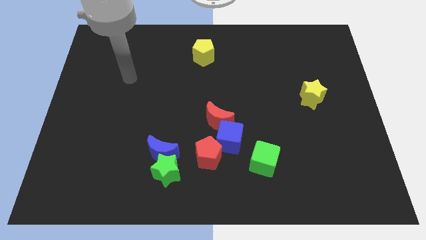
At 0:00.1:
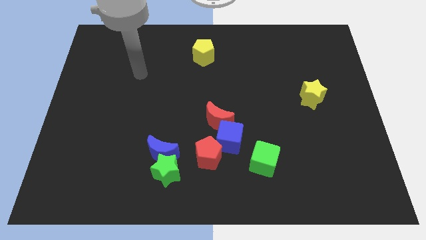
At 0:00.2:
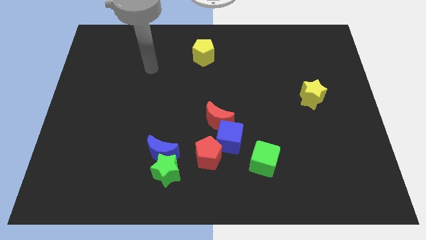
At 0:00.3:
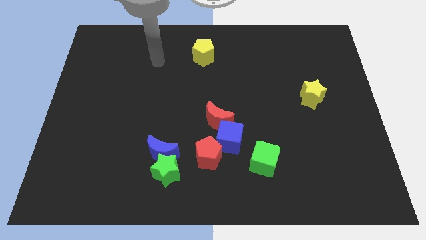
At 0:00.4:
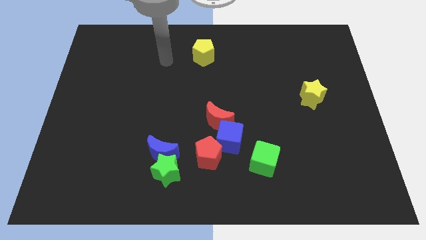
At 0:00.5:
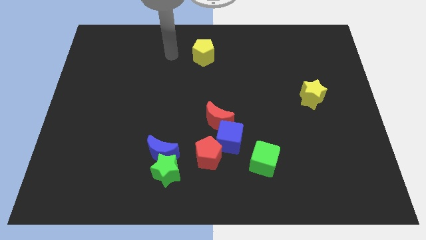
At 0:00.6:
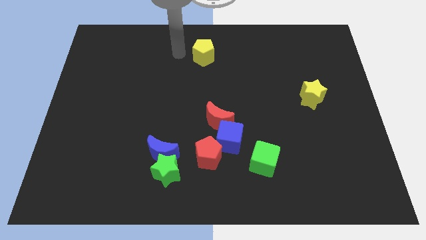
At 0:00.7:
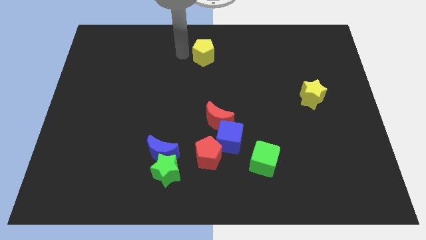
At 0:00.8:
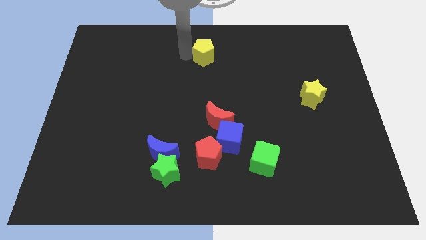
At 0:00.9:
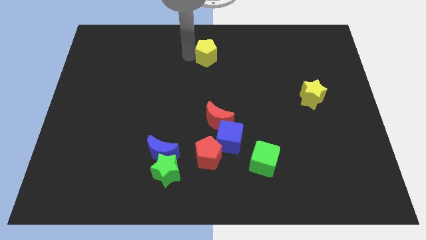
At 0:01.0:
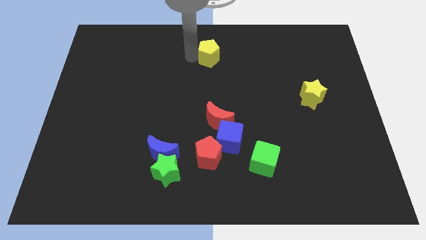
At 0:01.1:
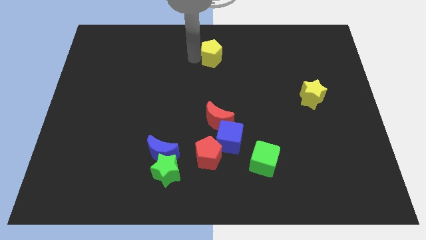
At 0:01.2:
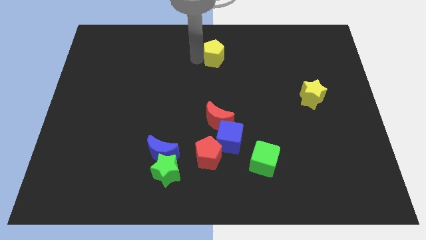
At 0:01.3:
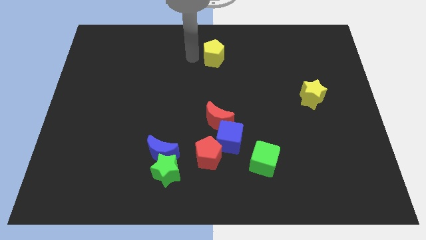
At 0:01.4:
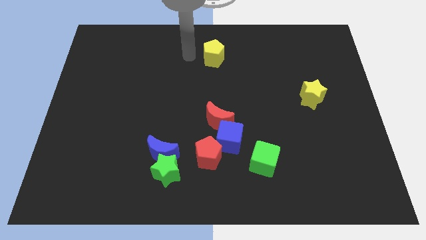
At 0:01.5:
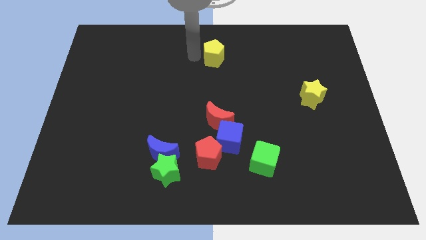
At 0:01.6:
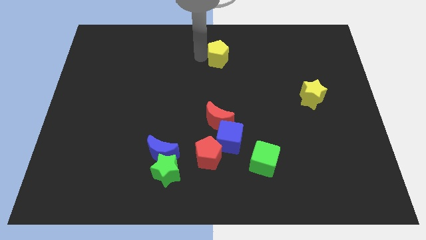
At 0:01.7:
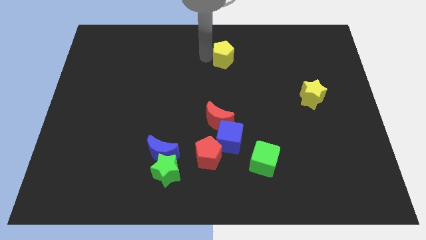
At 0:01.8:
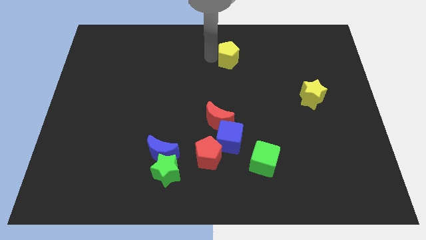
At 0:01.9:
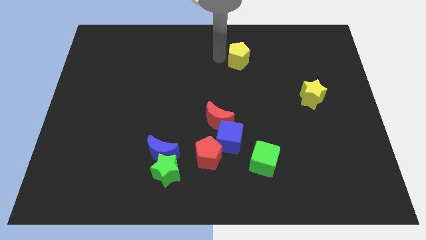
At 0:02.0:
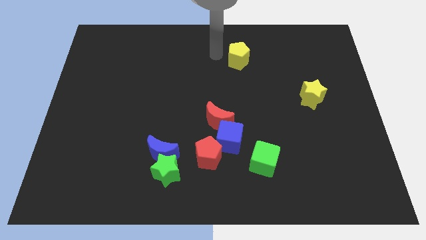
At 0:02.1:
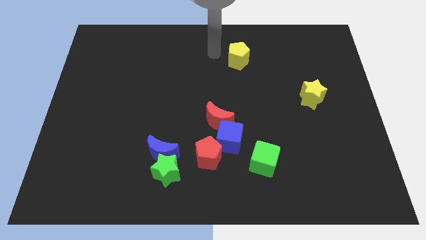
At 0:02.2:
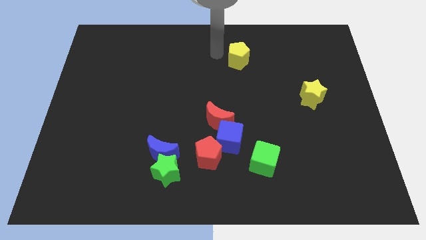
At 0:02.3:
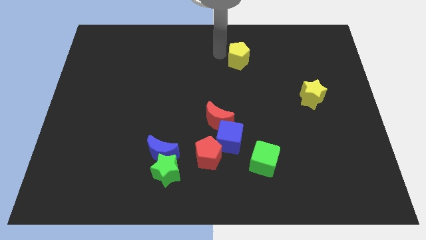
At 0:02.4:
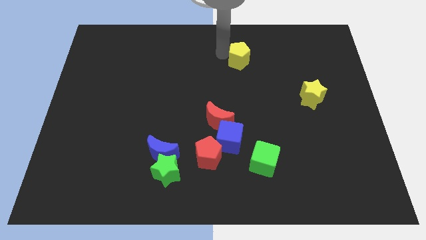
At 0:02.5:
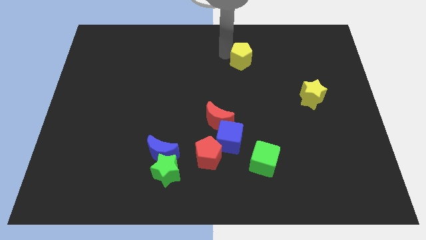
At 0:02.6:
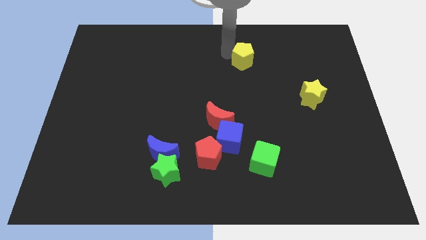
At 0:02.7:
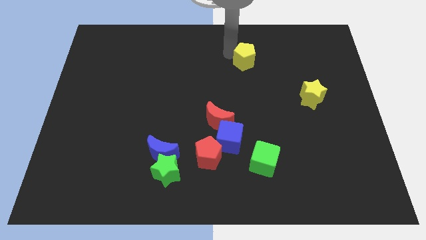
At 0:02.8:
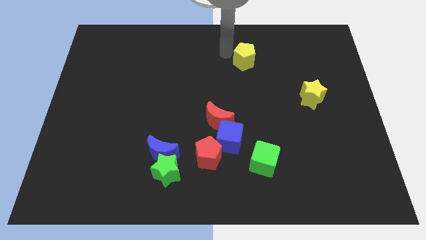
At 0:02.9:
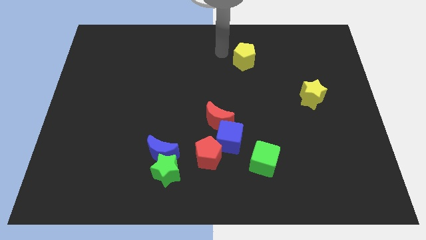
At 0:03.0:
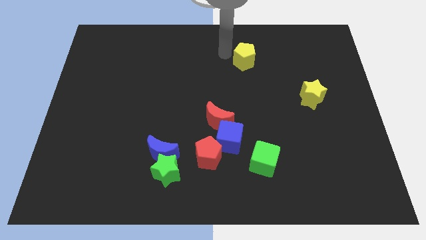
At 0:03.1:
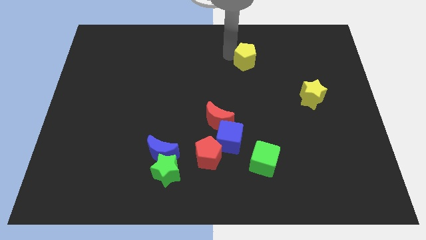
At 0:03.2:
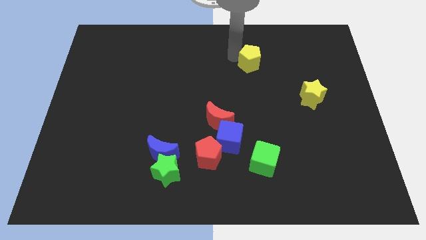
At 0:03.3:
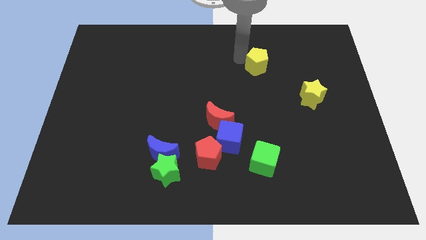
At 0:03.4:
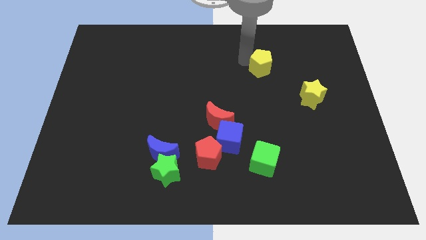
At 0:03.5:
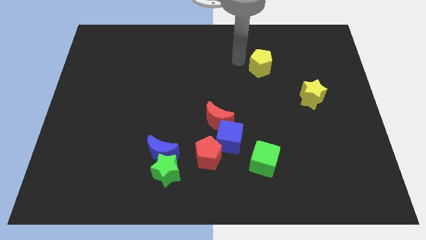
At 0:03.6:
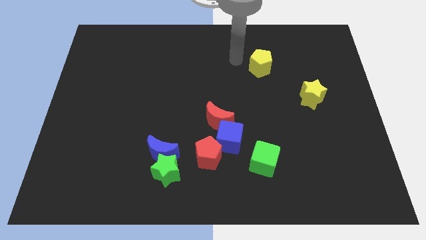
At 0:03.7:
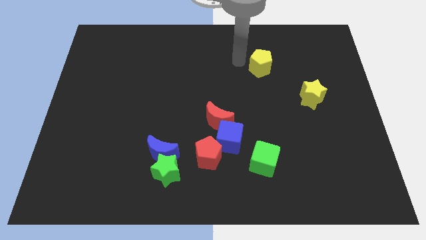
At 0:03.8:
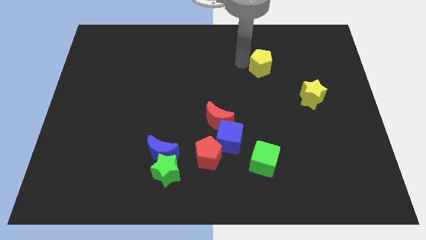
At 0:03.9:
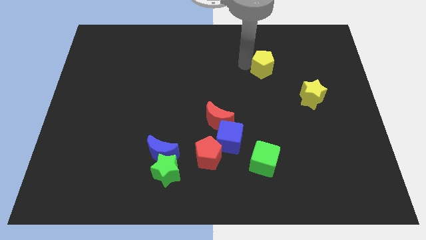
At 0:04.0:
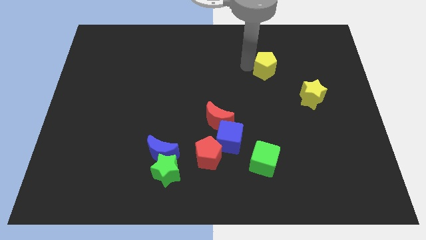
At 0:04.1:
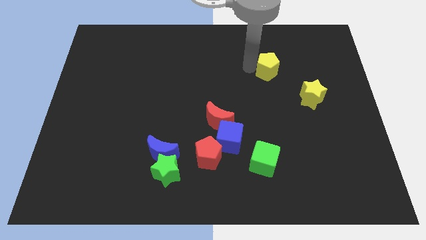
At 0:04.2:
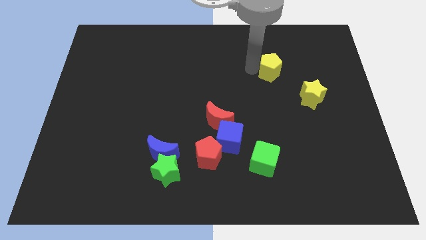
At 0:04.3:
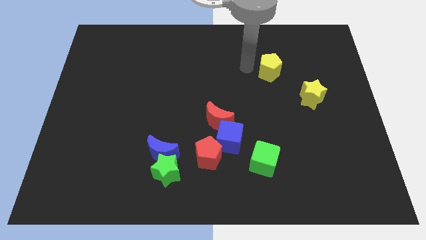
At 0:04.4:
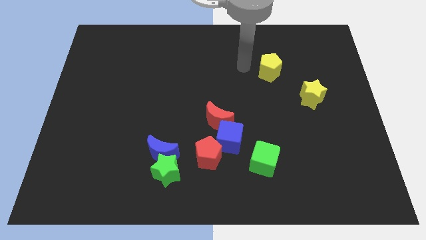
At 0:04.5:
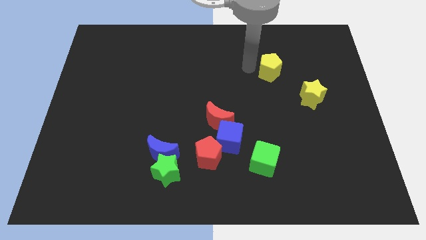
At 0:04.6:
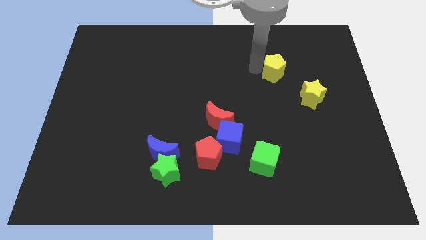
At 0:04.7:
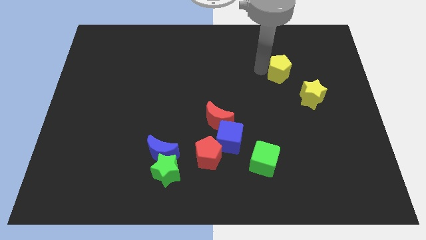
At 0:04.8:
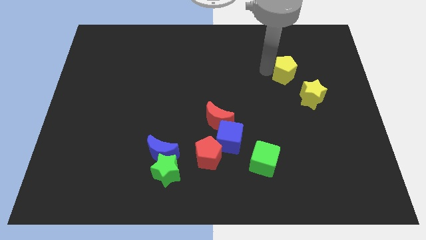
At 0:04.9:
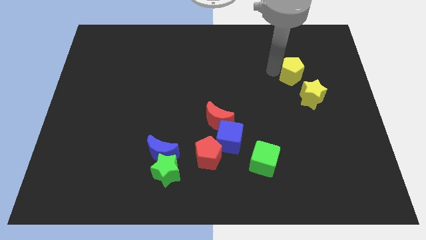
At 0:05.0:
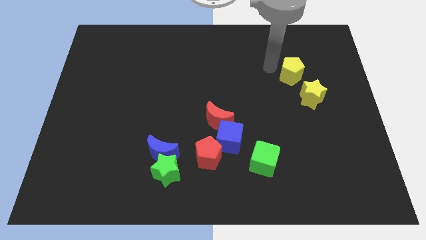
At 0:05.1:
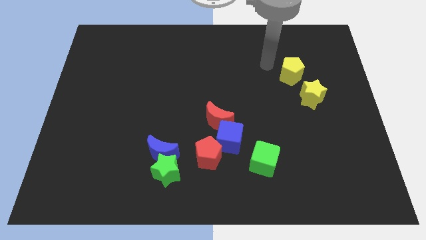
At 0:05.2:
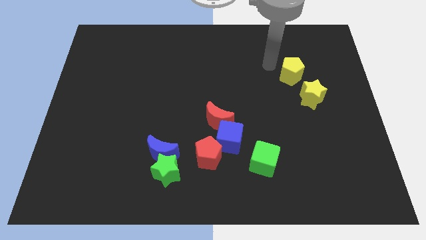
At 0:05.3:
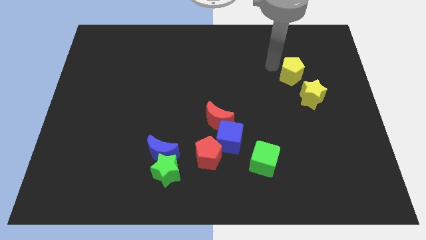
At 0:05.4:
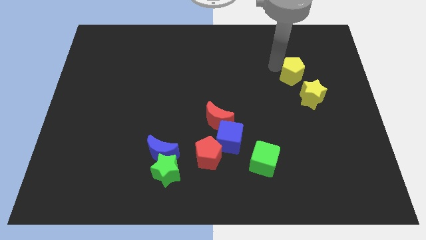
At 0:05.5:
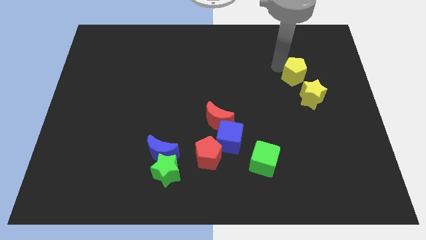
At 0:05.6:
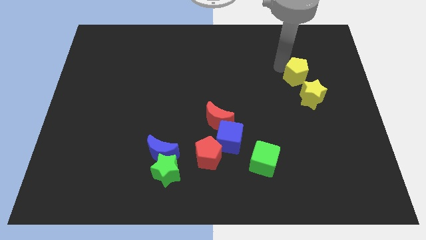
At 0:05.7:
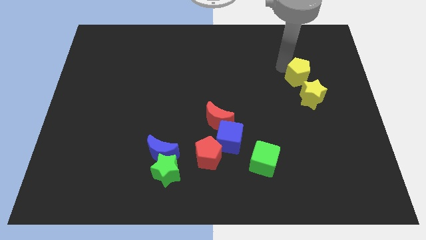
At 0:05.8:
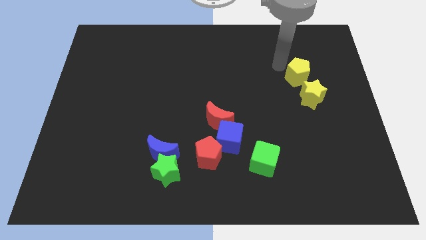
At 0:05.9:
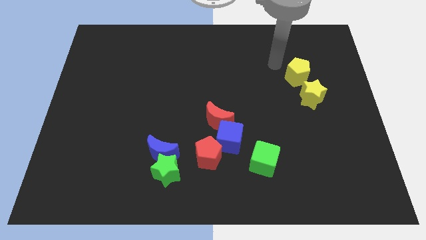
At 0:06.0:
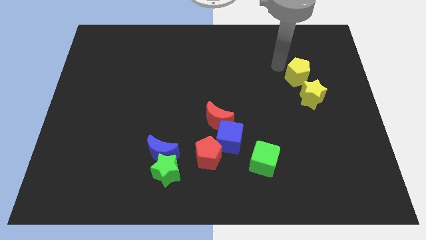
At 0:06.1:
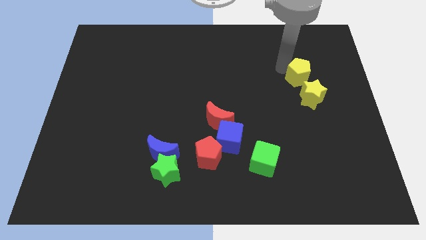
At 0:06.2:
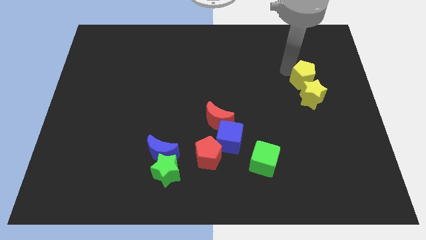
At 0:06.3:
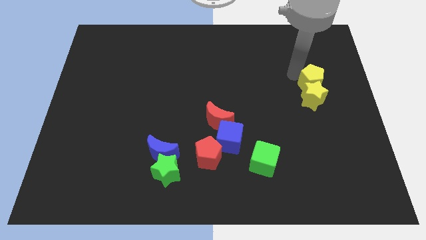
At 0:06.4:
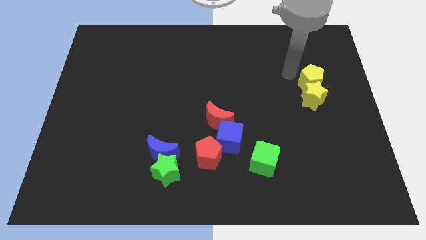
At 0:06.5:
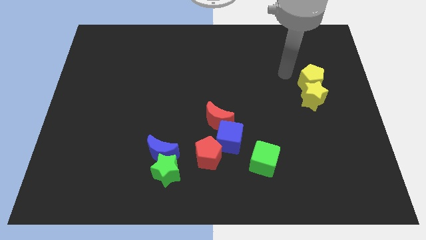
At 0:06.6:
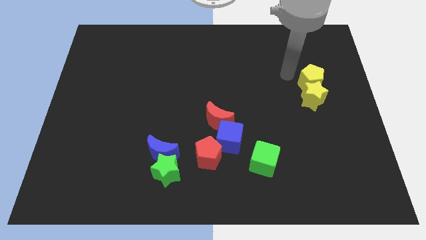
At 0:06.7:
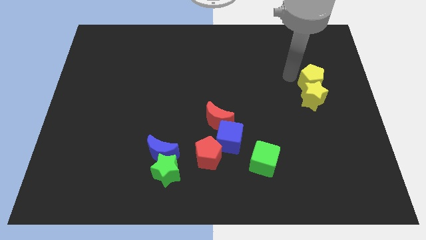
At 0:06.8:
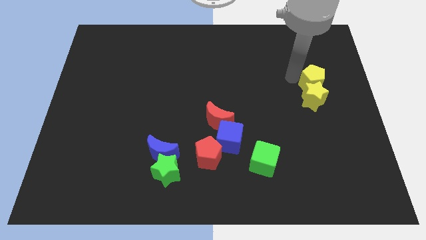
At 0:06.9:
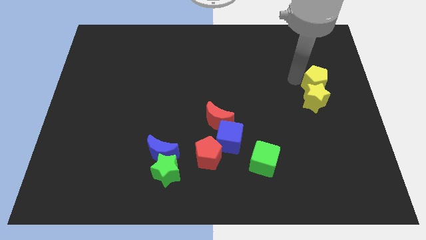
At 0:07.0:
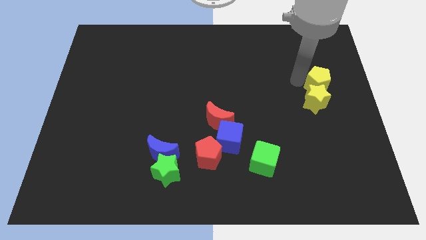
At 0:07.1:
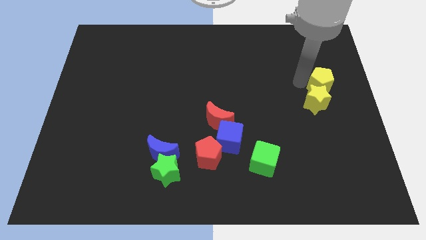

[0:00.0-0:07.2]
move the yellow pentagon to the right side of the board
